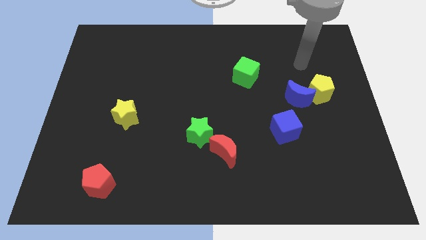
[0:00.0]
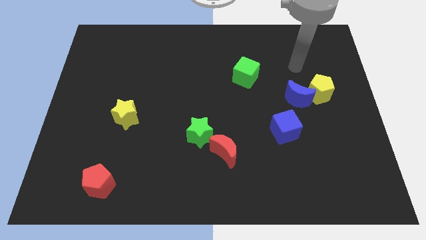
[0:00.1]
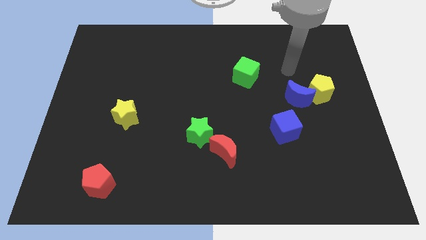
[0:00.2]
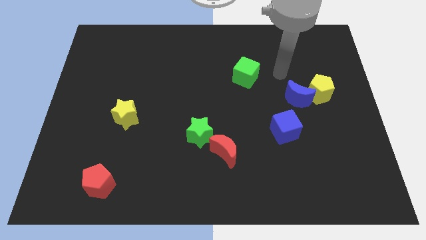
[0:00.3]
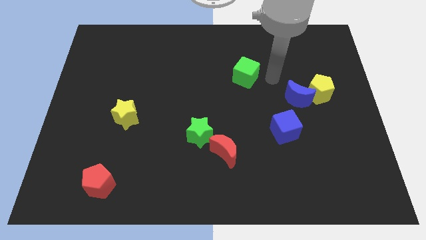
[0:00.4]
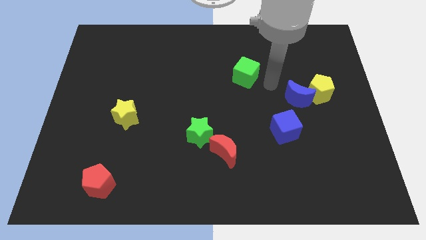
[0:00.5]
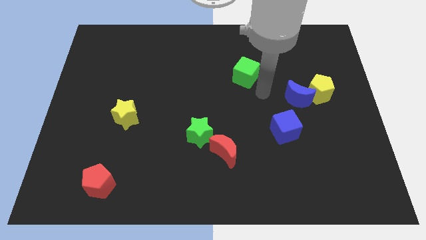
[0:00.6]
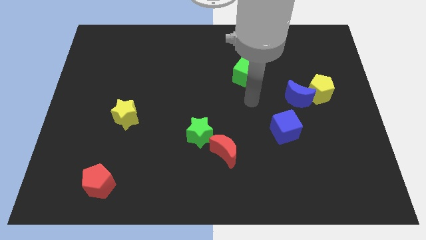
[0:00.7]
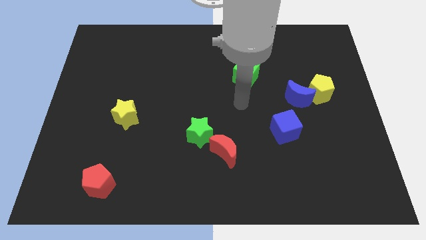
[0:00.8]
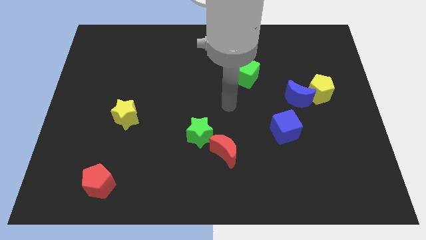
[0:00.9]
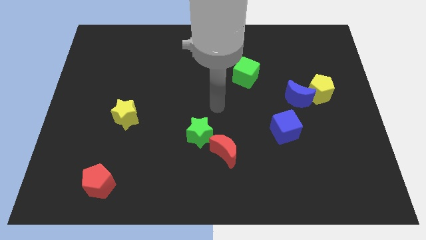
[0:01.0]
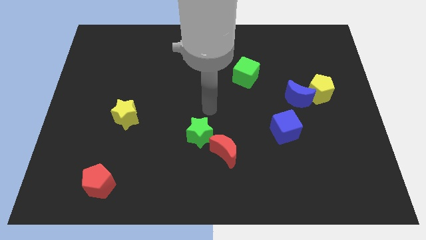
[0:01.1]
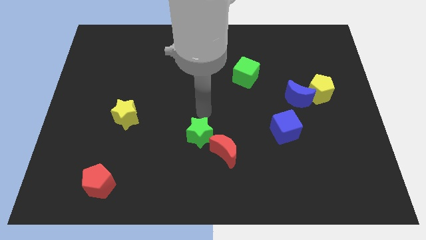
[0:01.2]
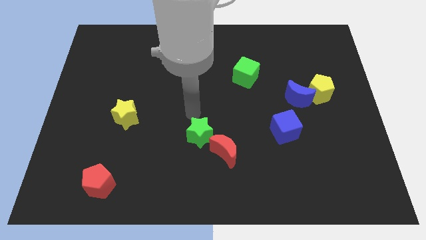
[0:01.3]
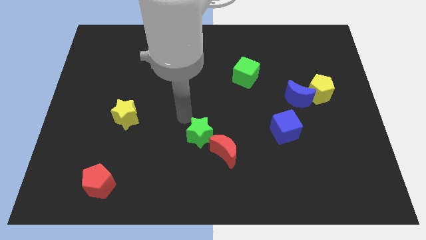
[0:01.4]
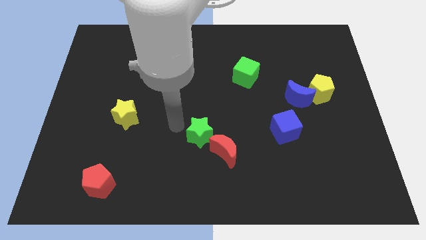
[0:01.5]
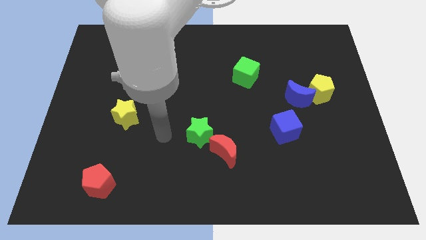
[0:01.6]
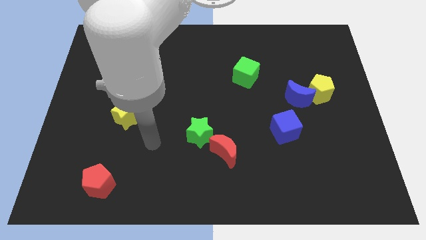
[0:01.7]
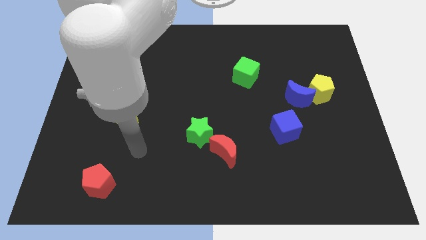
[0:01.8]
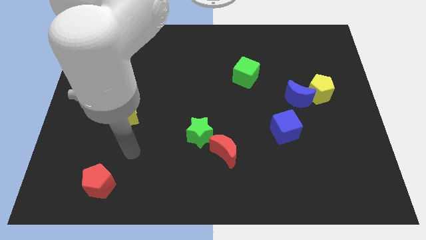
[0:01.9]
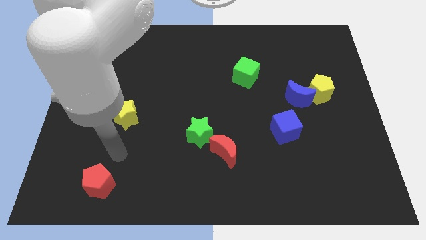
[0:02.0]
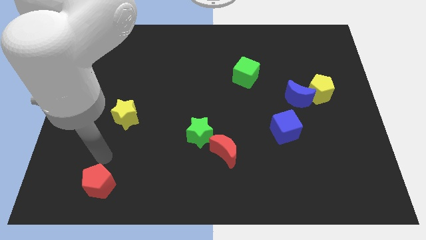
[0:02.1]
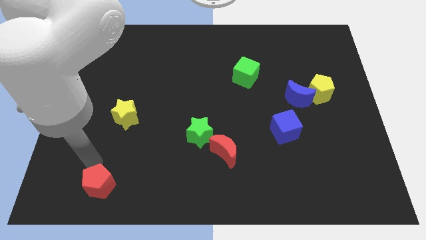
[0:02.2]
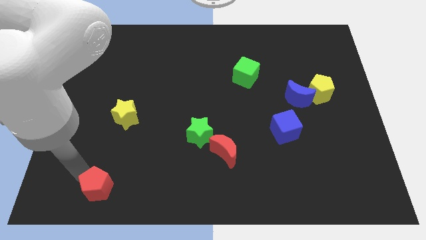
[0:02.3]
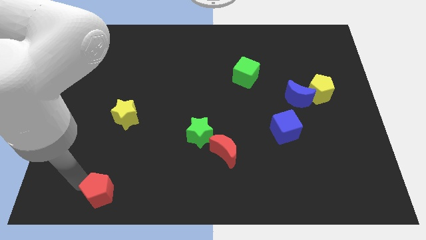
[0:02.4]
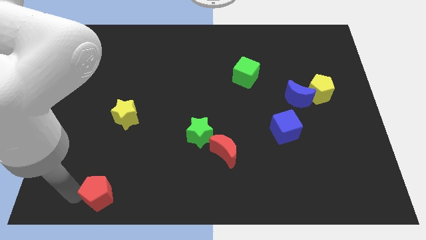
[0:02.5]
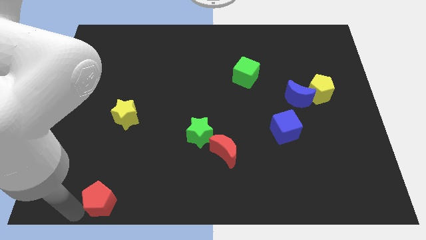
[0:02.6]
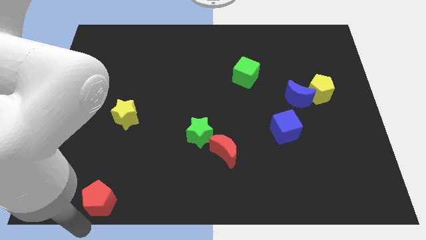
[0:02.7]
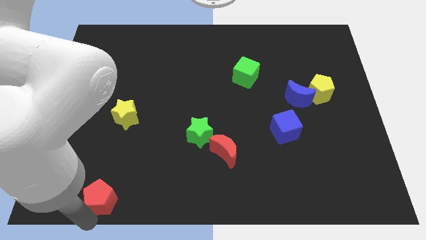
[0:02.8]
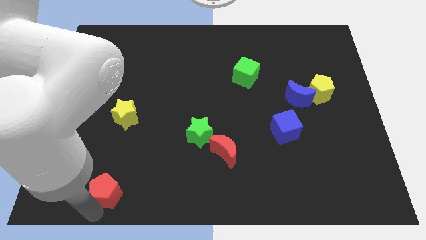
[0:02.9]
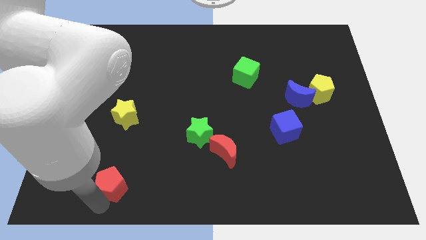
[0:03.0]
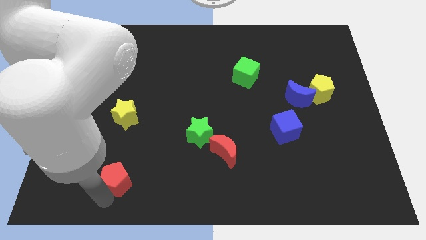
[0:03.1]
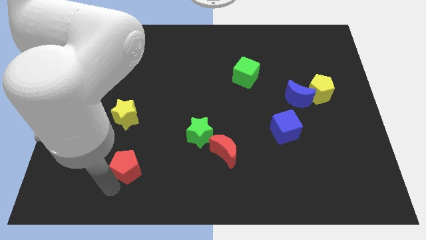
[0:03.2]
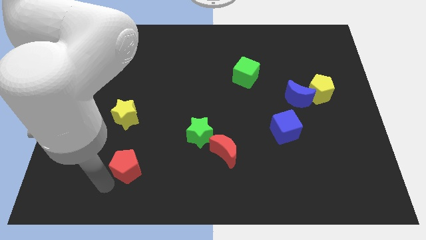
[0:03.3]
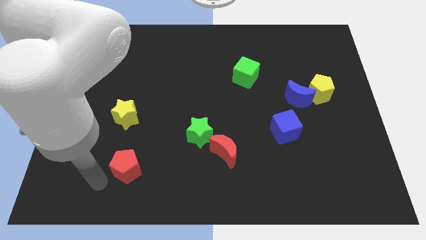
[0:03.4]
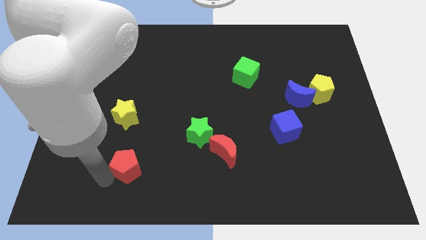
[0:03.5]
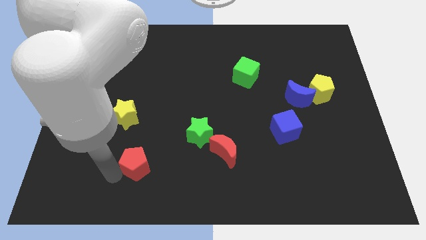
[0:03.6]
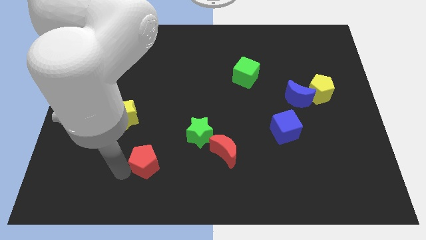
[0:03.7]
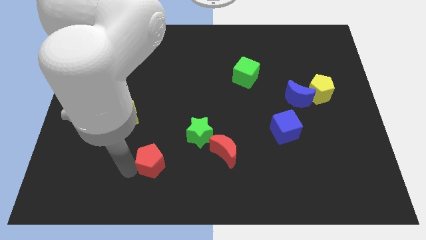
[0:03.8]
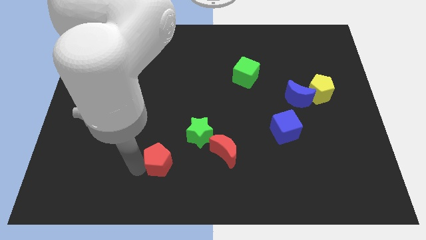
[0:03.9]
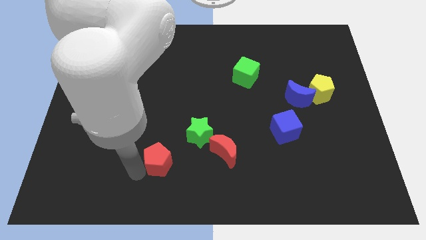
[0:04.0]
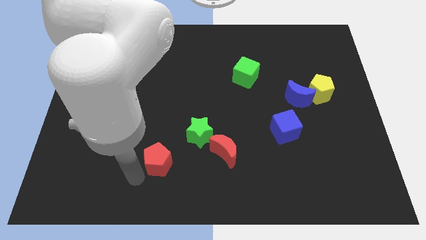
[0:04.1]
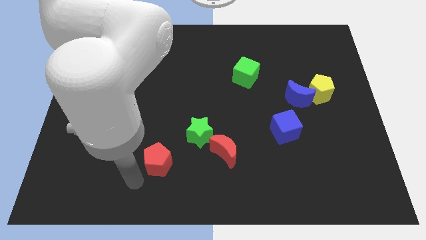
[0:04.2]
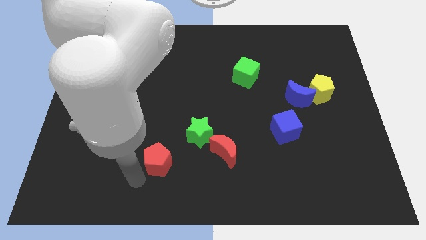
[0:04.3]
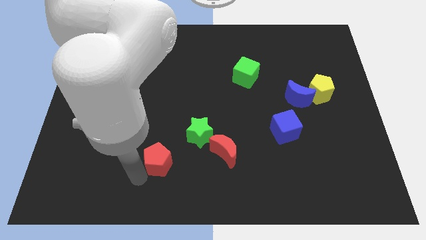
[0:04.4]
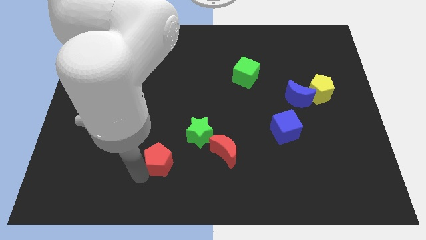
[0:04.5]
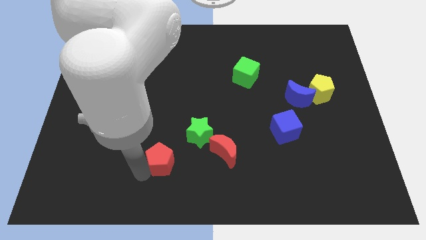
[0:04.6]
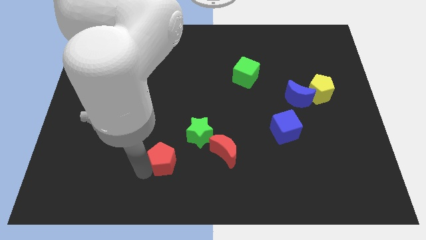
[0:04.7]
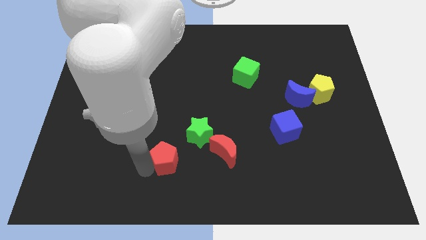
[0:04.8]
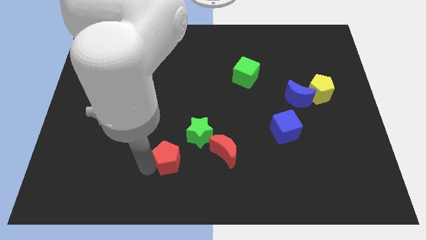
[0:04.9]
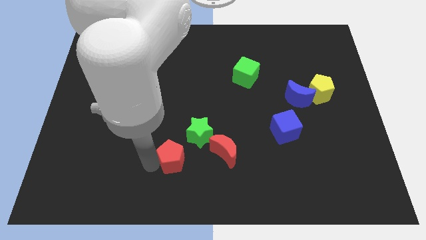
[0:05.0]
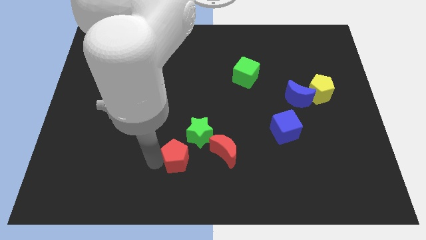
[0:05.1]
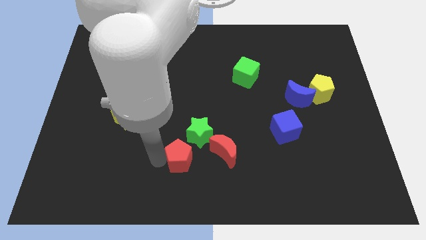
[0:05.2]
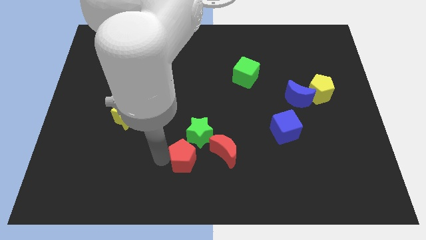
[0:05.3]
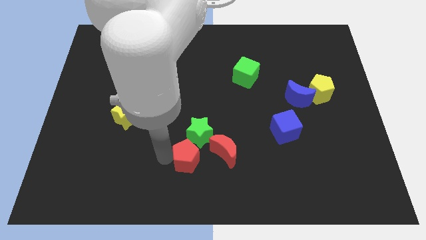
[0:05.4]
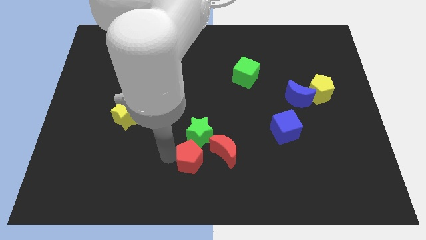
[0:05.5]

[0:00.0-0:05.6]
put the red pentagon towards the green star

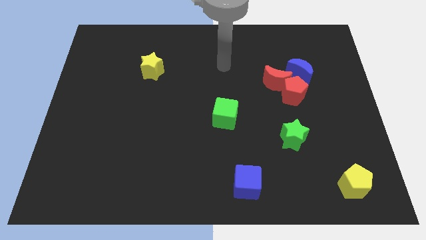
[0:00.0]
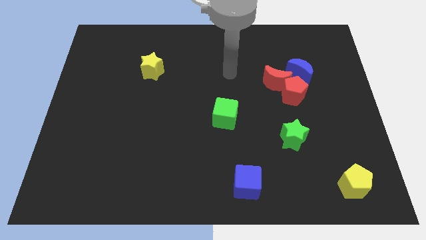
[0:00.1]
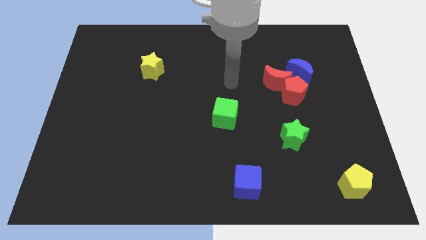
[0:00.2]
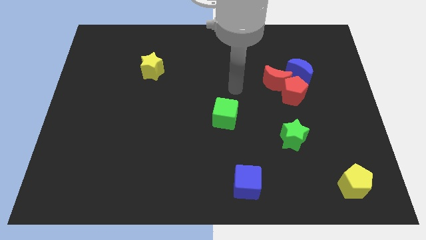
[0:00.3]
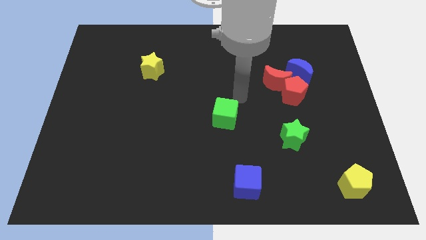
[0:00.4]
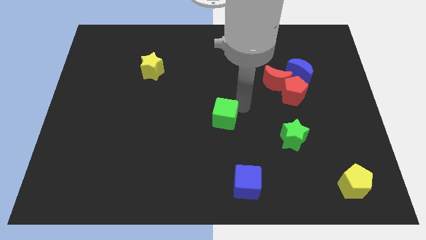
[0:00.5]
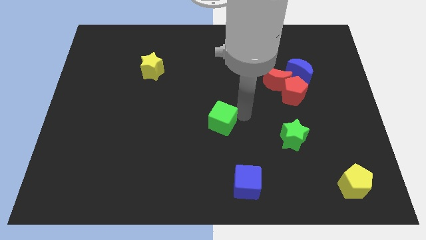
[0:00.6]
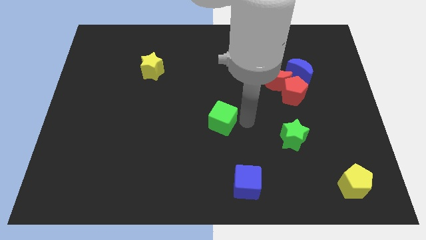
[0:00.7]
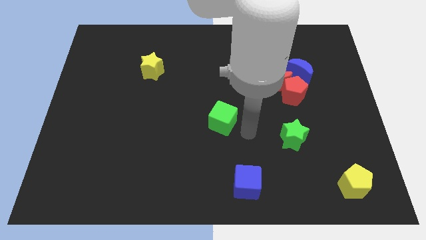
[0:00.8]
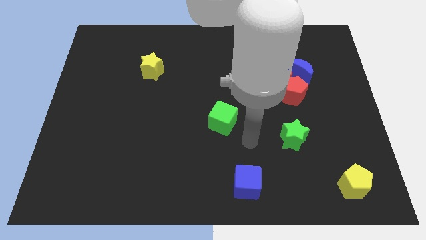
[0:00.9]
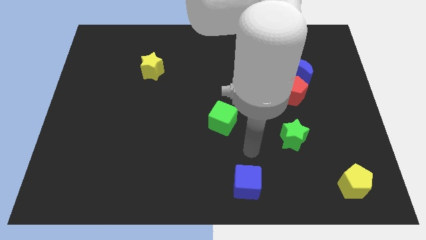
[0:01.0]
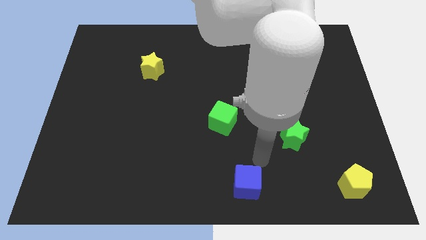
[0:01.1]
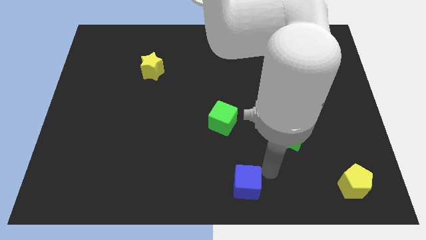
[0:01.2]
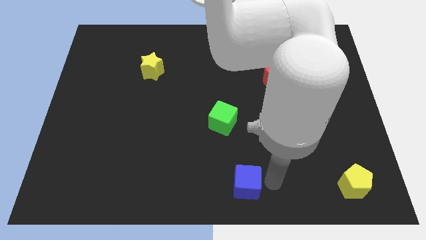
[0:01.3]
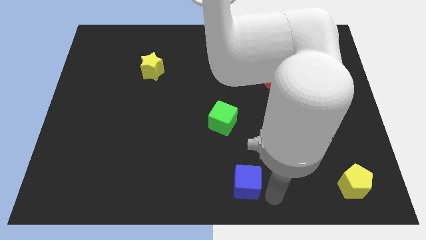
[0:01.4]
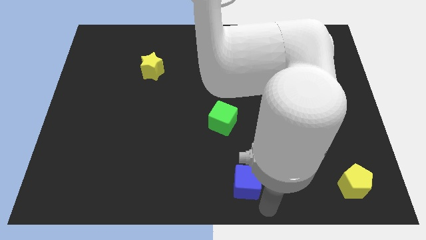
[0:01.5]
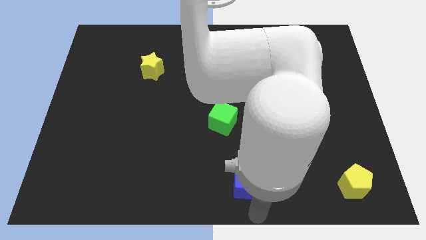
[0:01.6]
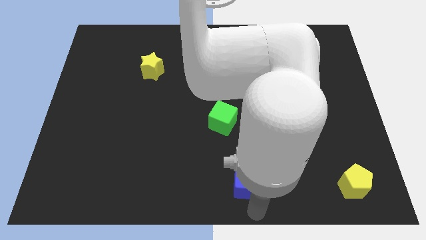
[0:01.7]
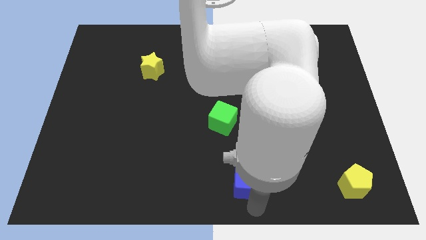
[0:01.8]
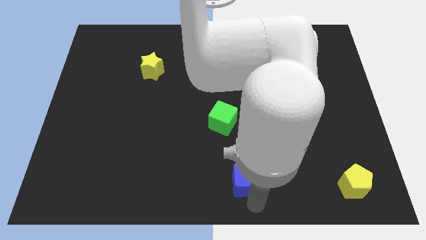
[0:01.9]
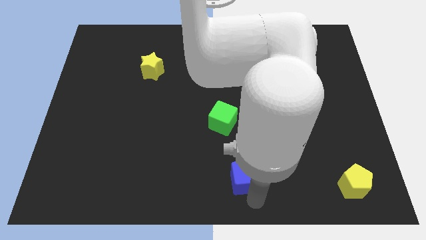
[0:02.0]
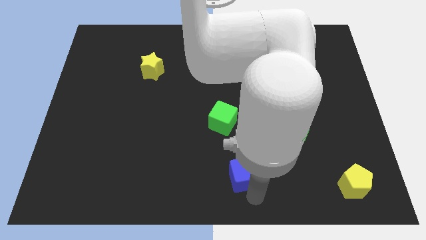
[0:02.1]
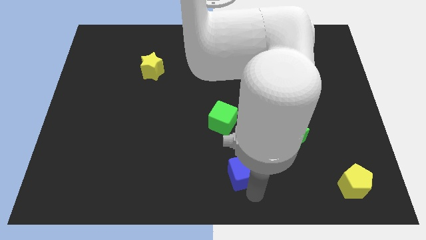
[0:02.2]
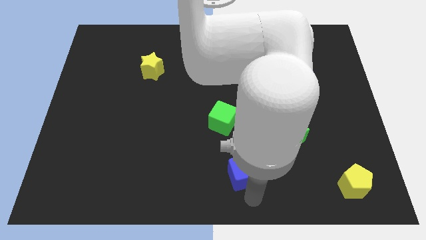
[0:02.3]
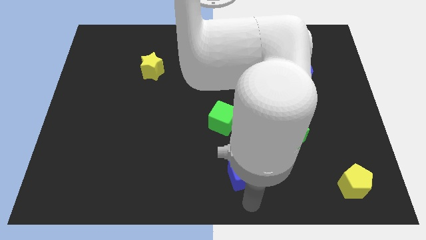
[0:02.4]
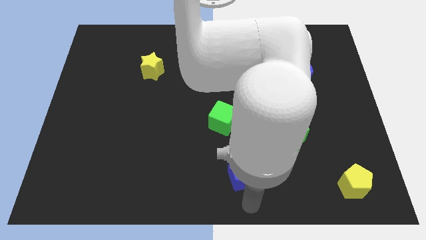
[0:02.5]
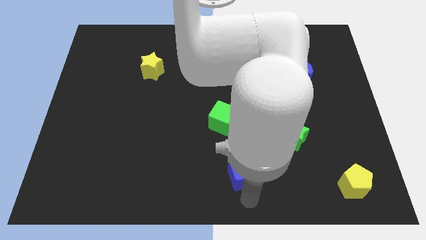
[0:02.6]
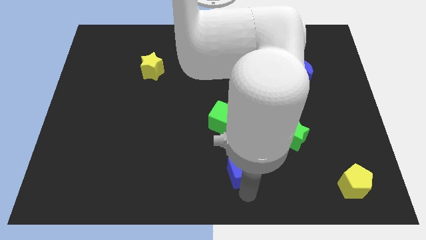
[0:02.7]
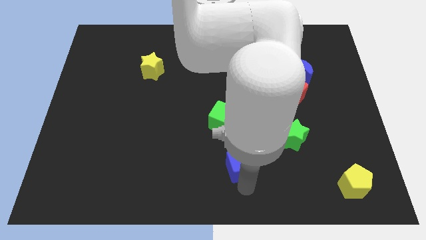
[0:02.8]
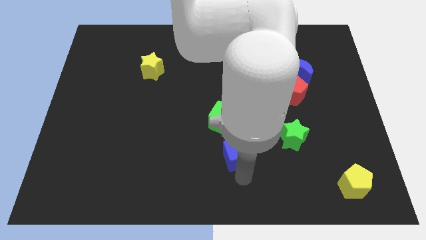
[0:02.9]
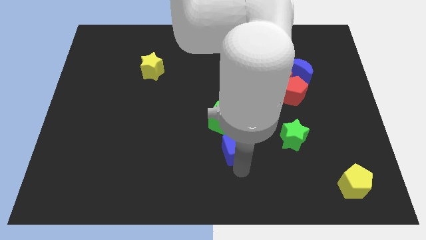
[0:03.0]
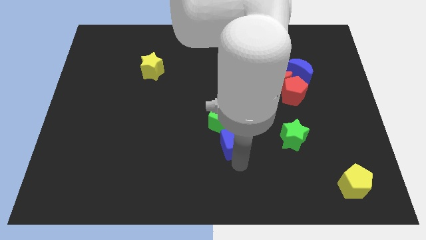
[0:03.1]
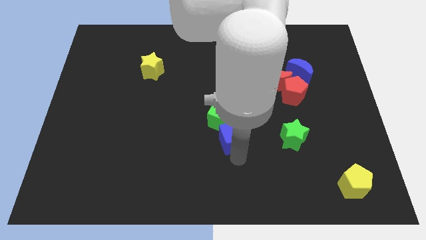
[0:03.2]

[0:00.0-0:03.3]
slide the blue cube to the green cube
